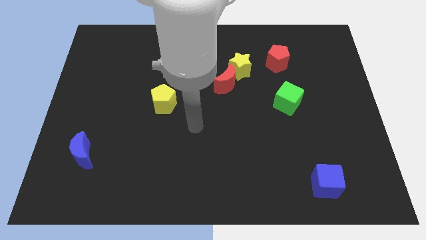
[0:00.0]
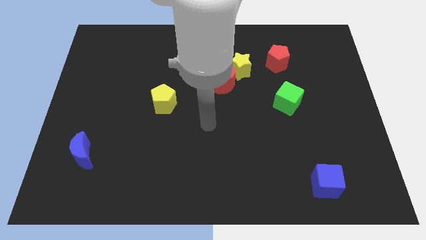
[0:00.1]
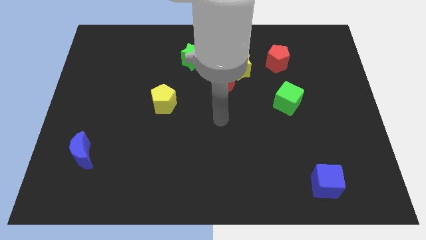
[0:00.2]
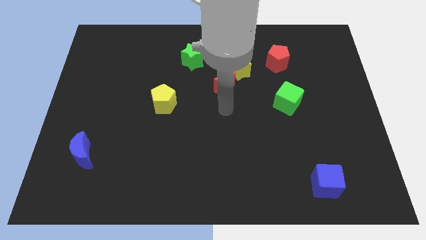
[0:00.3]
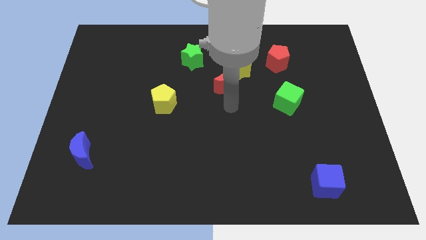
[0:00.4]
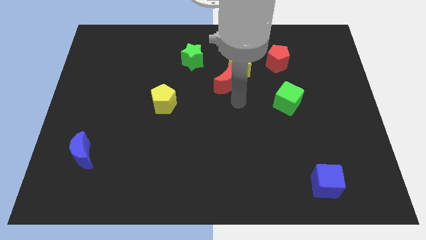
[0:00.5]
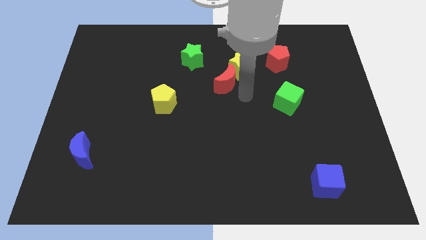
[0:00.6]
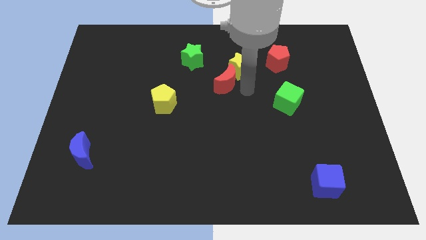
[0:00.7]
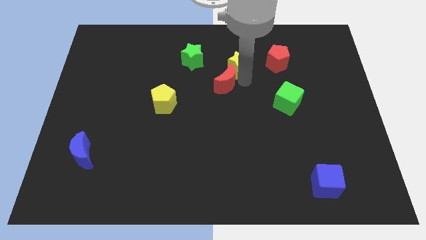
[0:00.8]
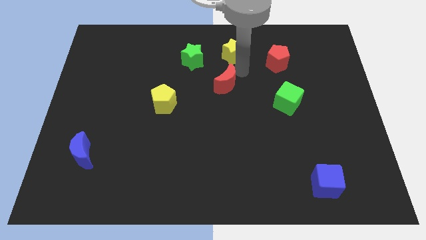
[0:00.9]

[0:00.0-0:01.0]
pull the red moon apart from the yellow star

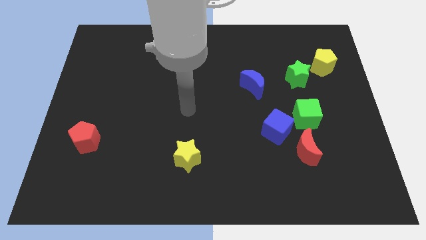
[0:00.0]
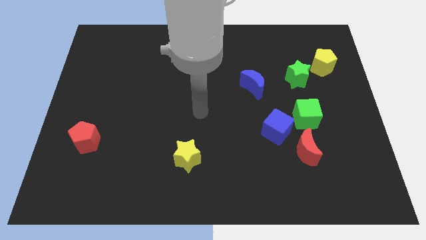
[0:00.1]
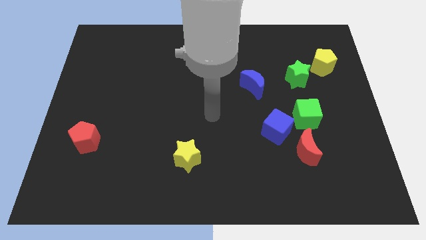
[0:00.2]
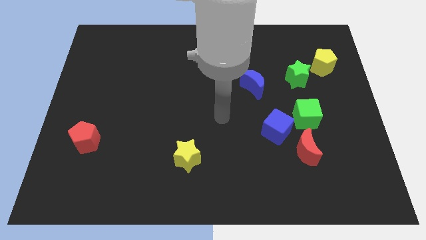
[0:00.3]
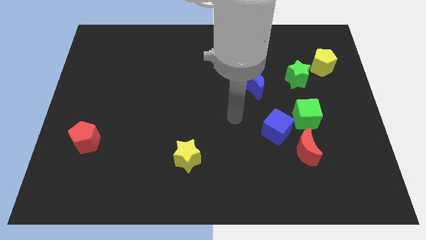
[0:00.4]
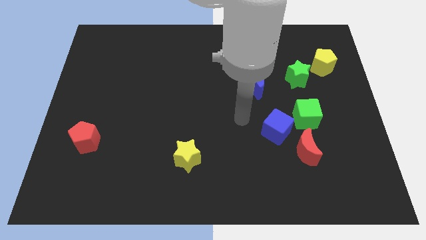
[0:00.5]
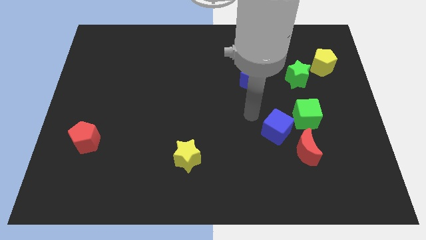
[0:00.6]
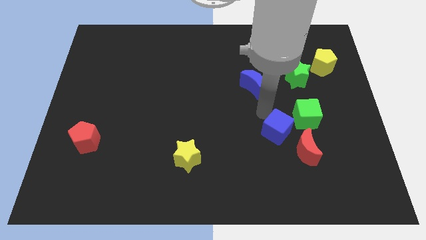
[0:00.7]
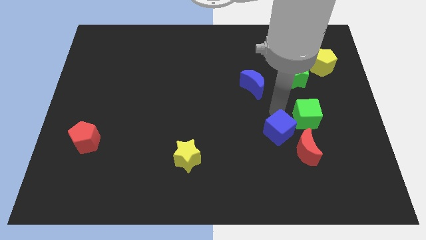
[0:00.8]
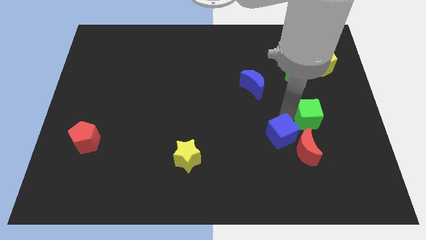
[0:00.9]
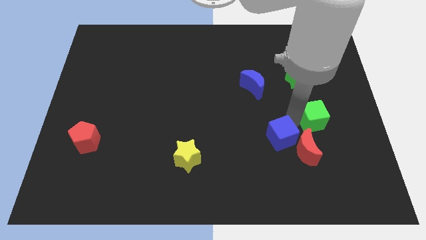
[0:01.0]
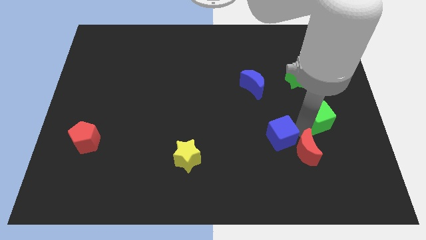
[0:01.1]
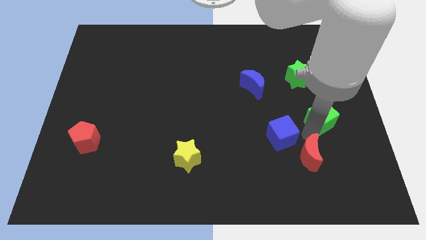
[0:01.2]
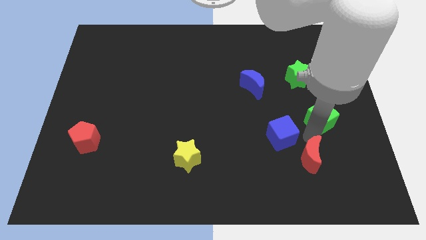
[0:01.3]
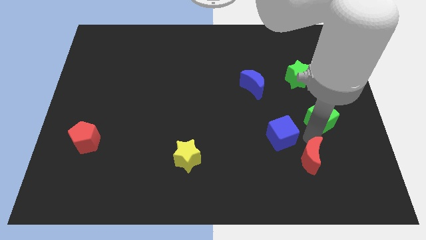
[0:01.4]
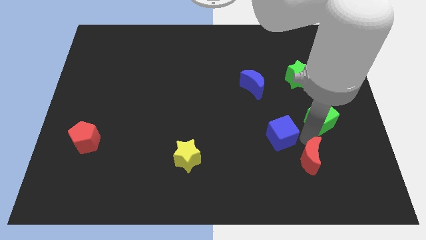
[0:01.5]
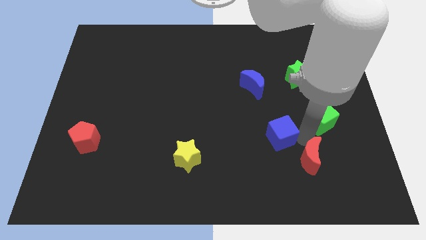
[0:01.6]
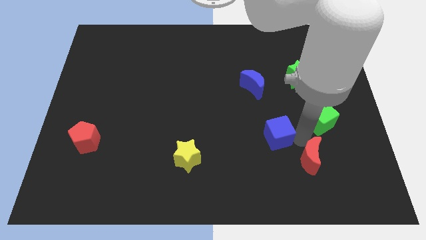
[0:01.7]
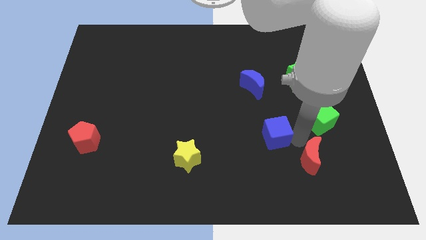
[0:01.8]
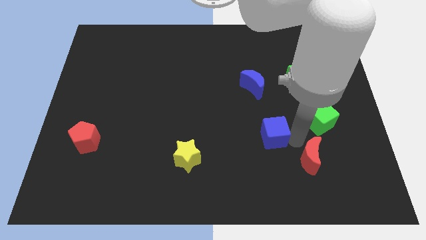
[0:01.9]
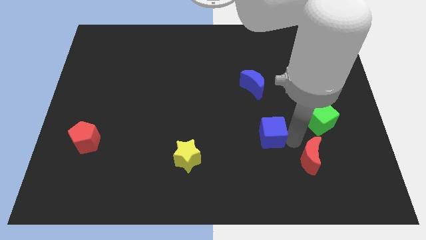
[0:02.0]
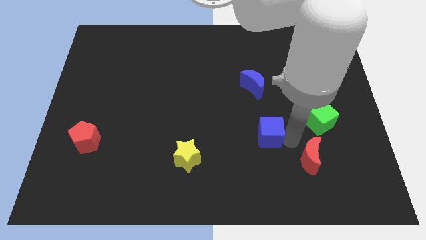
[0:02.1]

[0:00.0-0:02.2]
separate the blue cube from the red moon and green cube

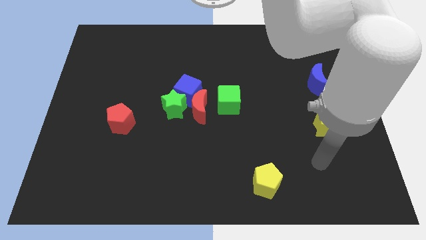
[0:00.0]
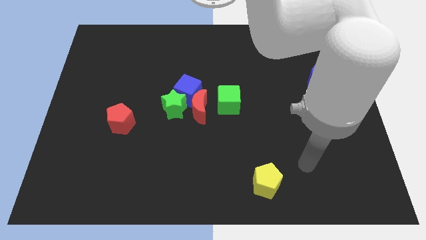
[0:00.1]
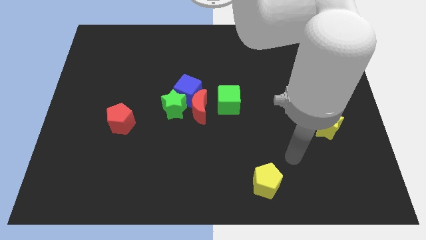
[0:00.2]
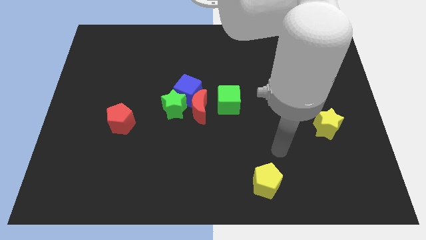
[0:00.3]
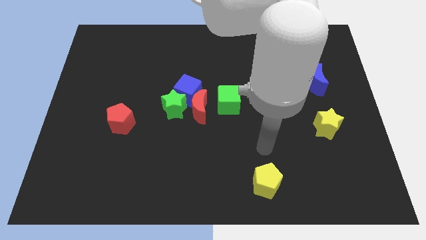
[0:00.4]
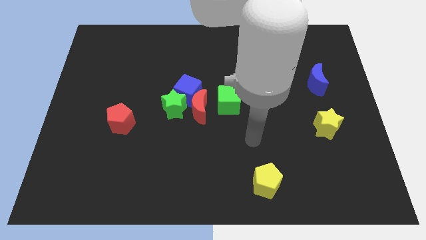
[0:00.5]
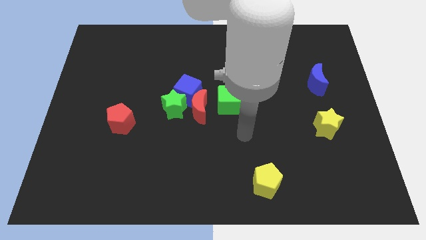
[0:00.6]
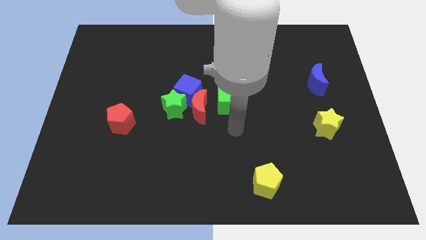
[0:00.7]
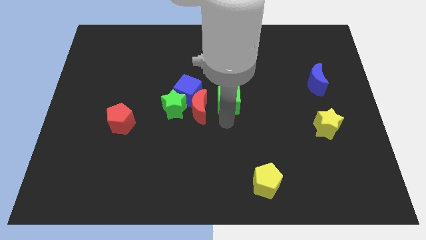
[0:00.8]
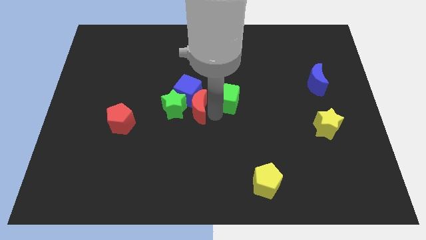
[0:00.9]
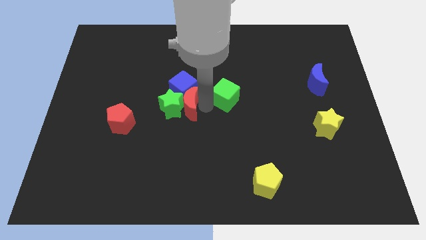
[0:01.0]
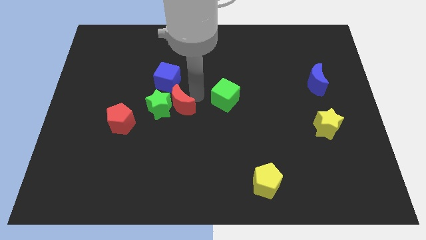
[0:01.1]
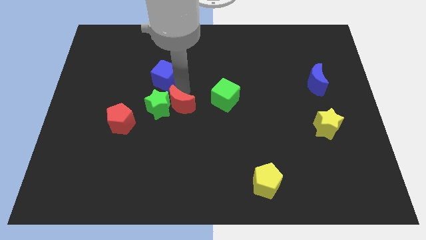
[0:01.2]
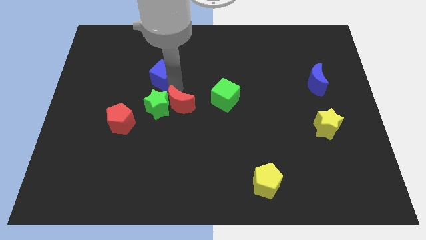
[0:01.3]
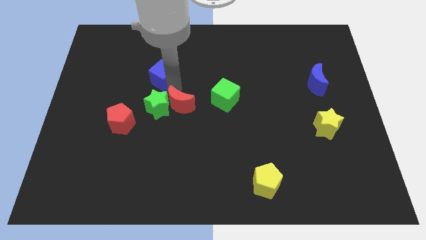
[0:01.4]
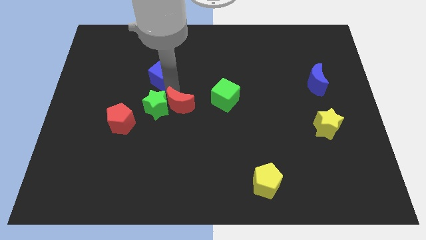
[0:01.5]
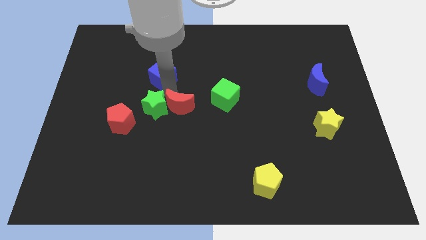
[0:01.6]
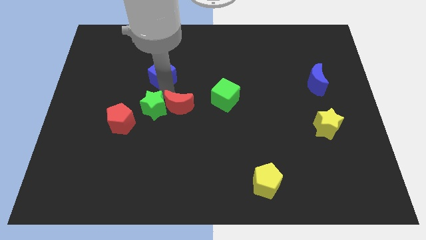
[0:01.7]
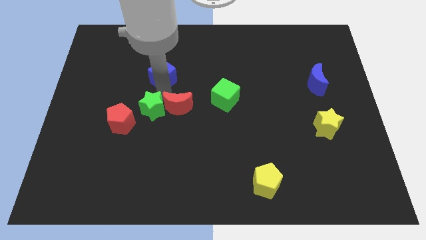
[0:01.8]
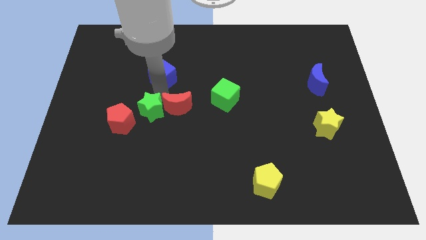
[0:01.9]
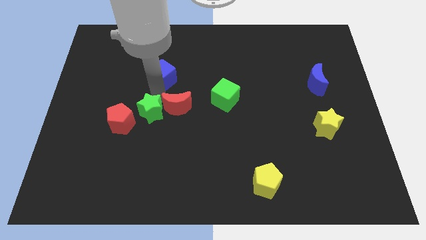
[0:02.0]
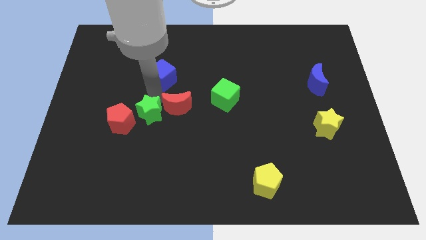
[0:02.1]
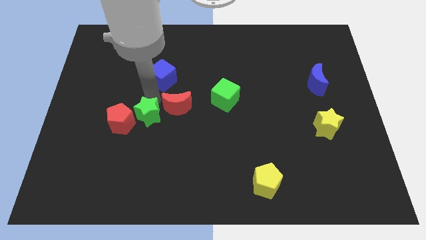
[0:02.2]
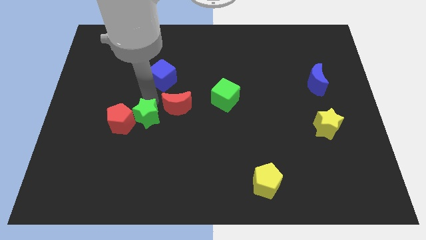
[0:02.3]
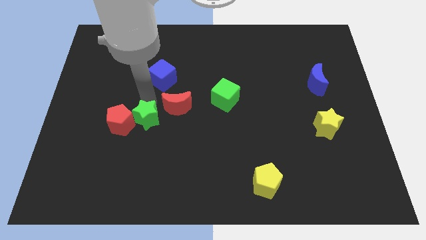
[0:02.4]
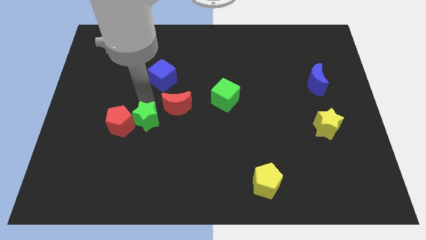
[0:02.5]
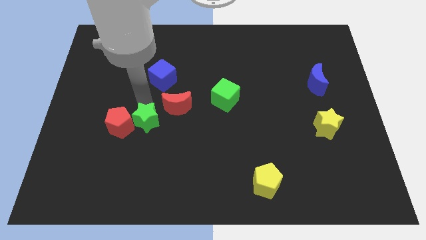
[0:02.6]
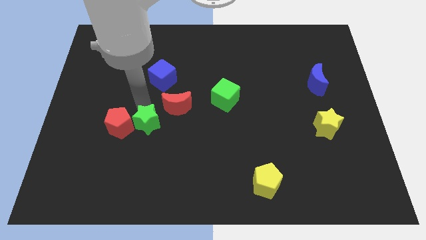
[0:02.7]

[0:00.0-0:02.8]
separate the green star from the blue cube and red moon

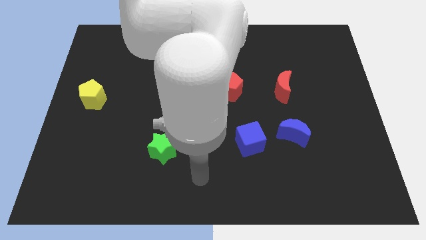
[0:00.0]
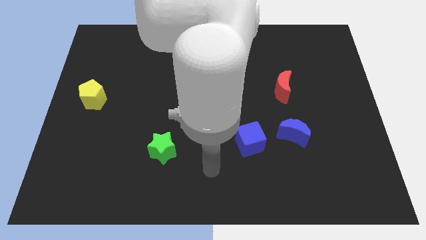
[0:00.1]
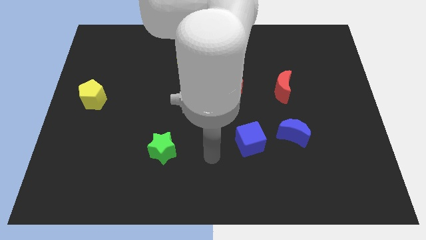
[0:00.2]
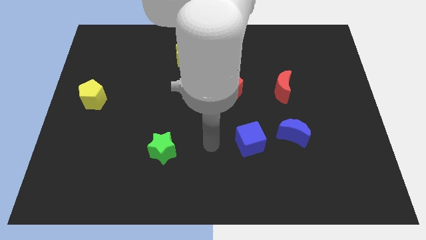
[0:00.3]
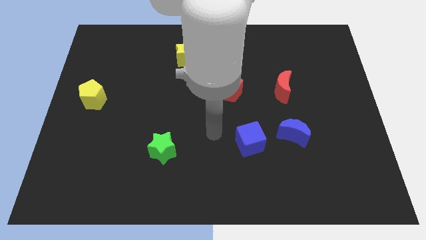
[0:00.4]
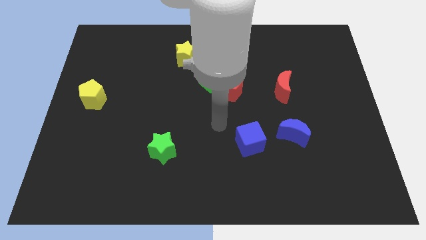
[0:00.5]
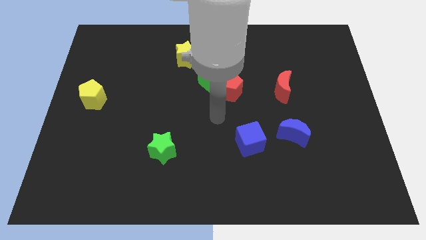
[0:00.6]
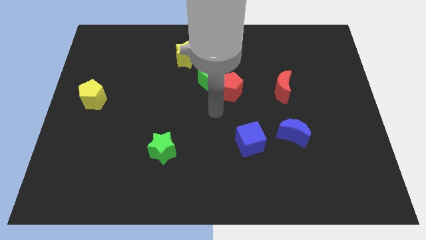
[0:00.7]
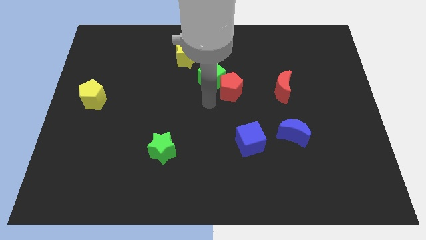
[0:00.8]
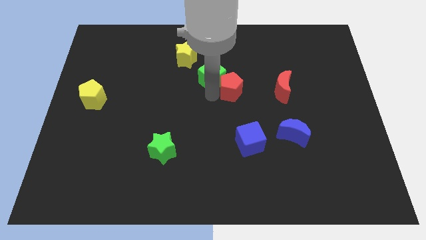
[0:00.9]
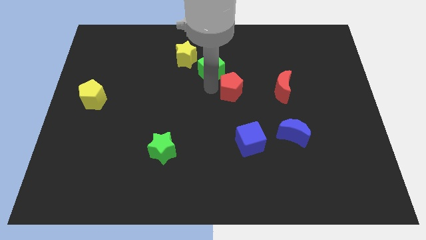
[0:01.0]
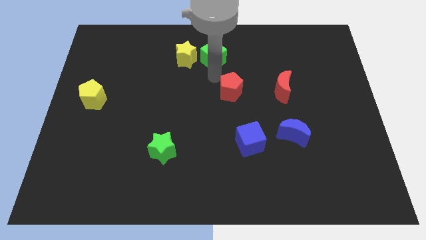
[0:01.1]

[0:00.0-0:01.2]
move the red pentagon away from the green cube

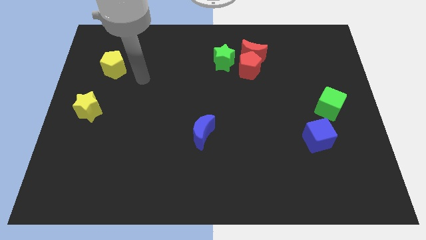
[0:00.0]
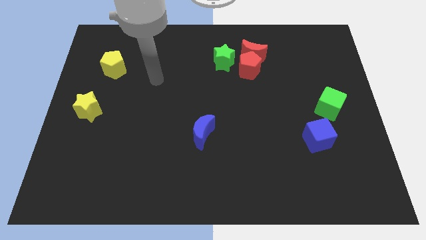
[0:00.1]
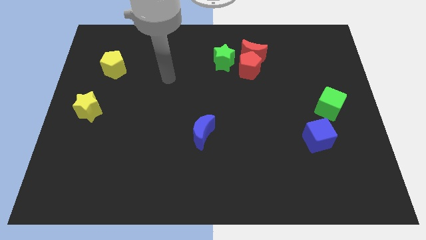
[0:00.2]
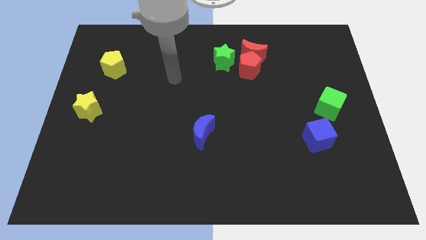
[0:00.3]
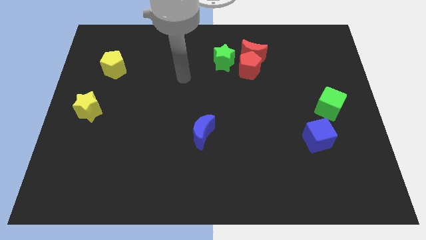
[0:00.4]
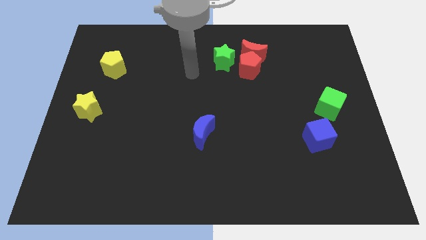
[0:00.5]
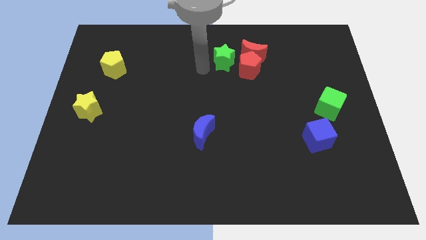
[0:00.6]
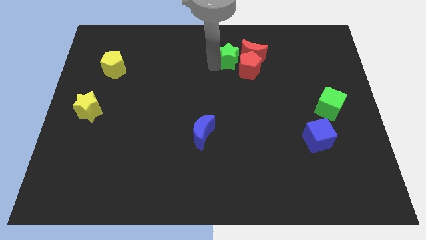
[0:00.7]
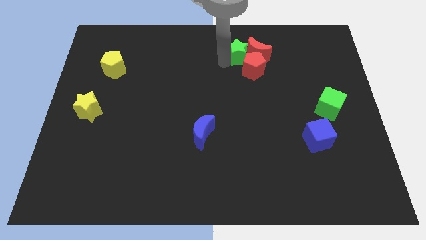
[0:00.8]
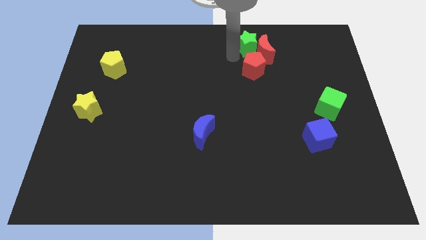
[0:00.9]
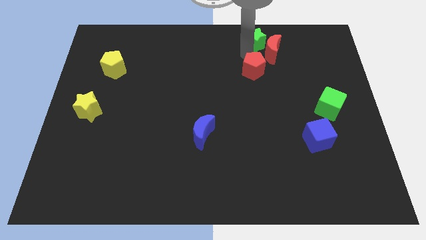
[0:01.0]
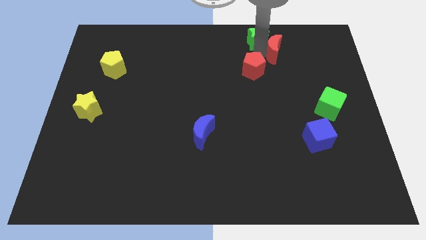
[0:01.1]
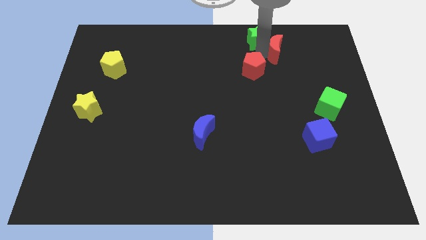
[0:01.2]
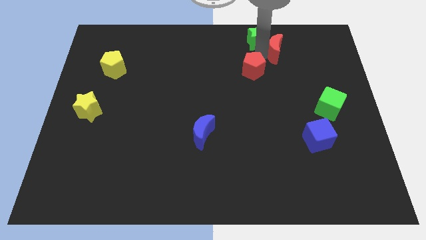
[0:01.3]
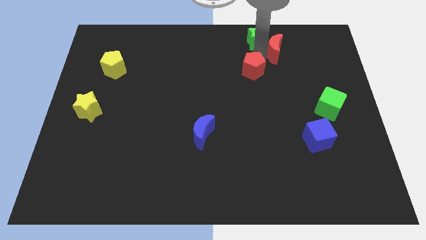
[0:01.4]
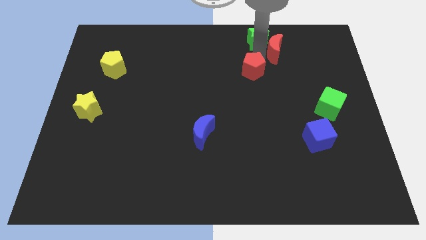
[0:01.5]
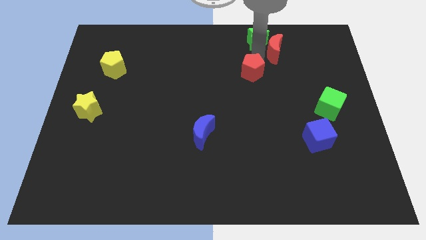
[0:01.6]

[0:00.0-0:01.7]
separate the red pentagon from the red moon and green star

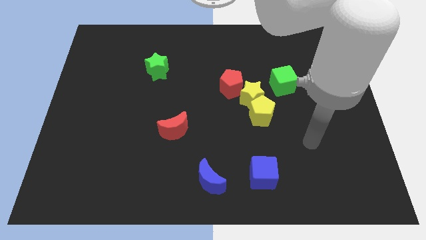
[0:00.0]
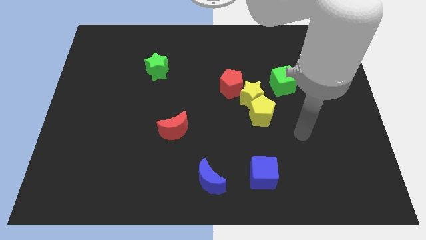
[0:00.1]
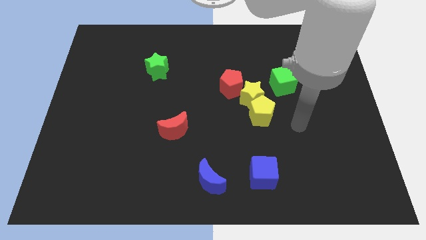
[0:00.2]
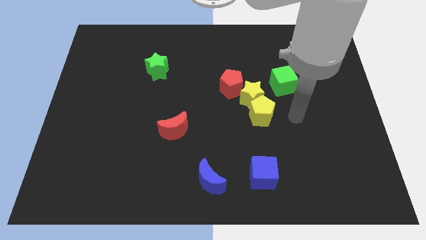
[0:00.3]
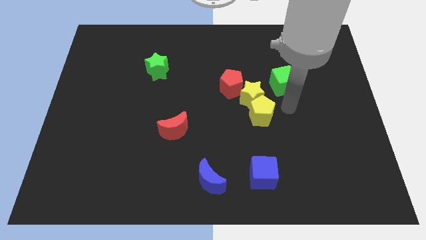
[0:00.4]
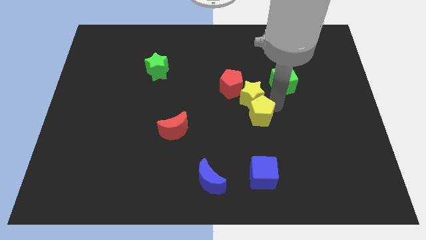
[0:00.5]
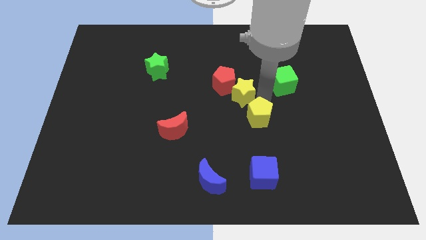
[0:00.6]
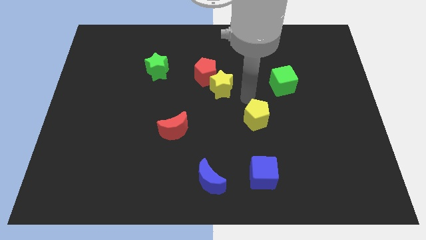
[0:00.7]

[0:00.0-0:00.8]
pull the yellow pentagon apart from the yellow star
